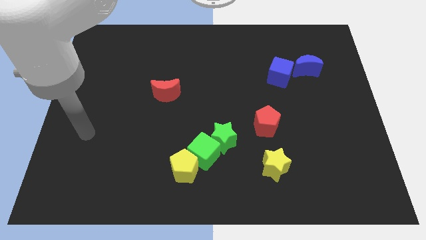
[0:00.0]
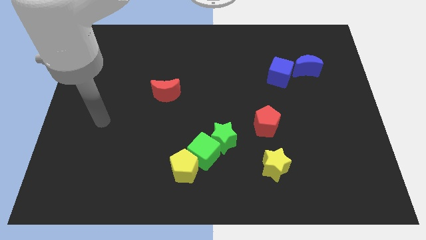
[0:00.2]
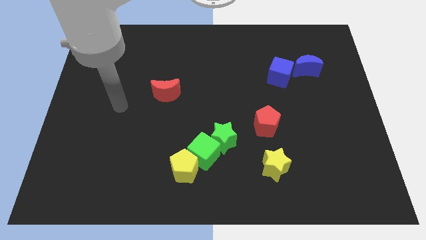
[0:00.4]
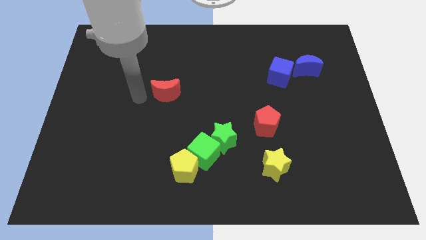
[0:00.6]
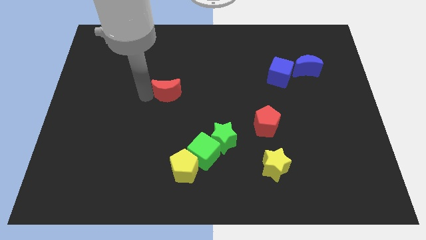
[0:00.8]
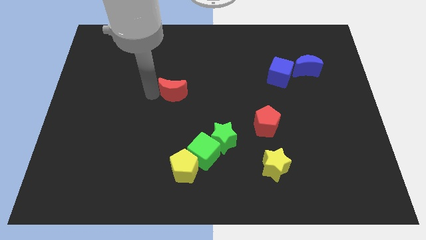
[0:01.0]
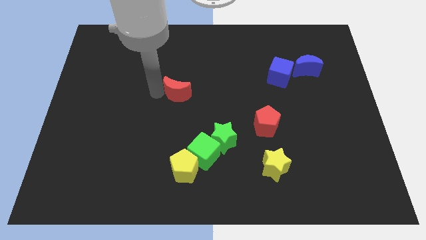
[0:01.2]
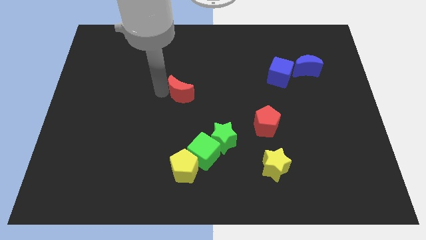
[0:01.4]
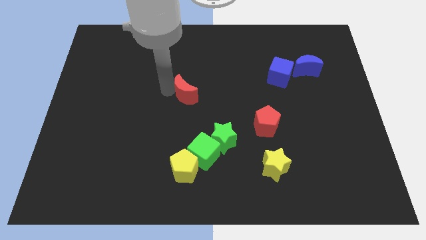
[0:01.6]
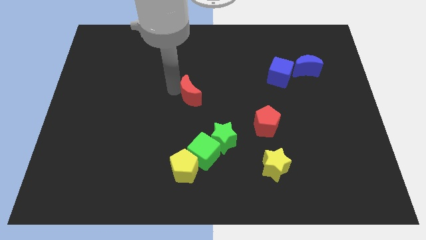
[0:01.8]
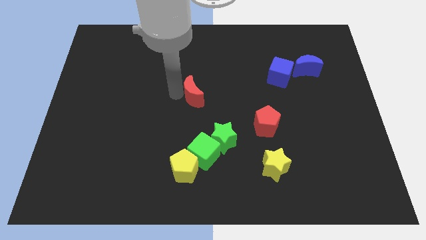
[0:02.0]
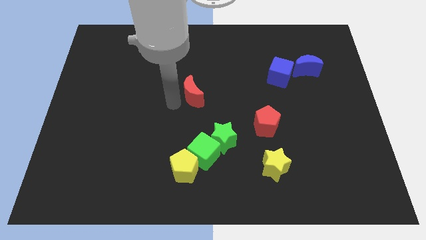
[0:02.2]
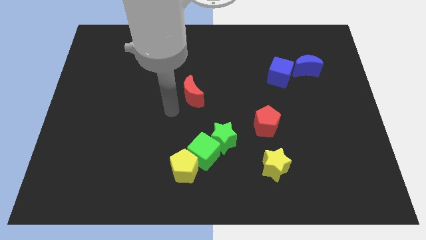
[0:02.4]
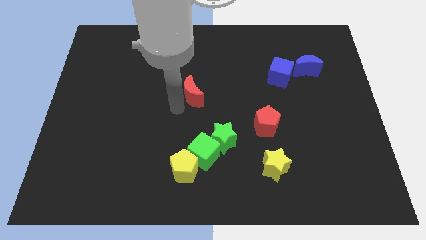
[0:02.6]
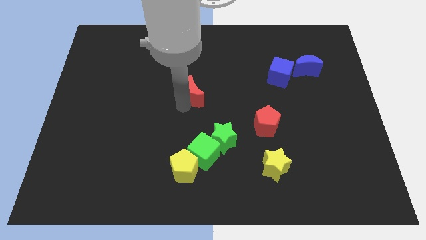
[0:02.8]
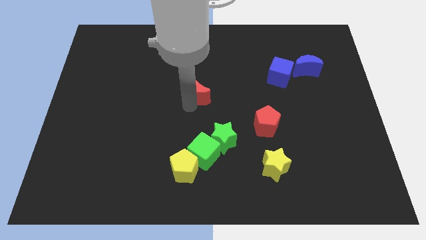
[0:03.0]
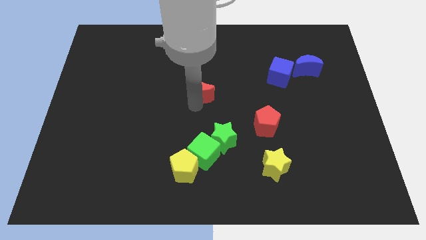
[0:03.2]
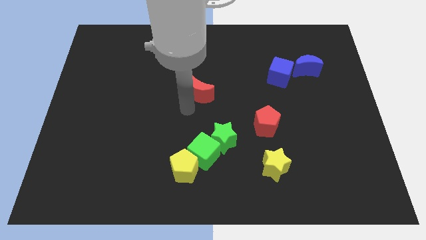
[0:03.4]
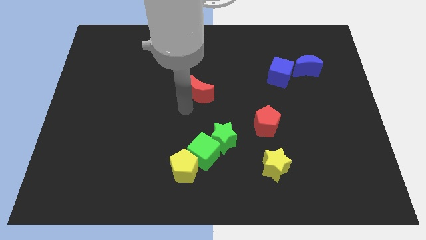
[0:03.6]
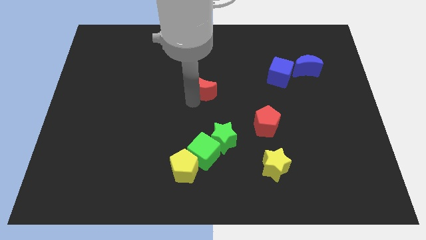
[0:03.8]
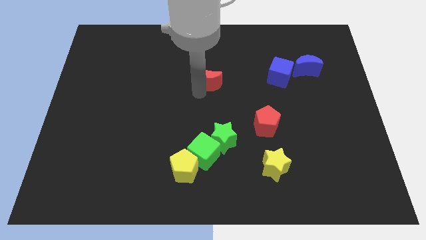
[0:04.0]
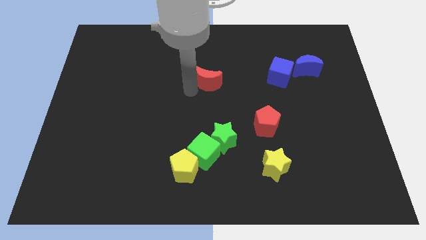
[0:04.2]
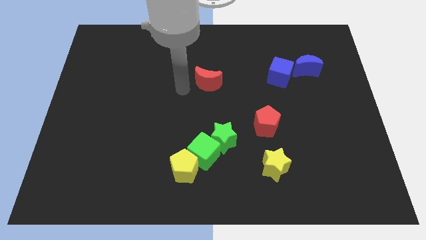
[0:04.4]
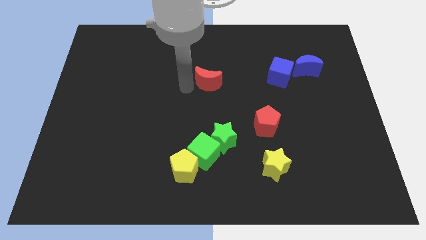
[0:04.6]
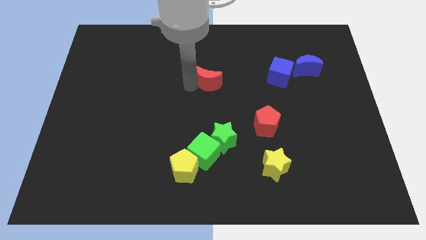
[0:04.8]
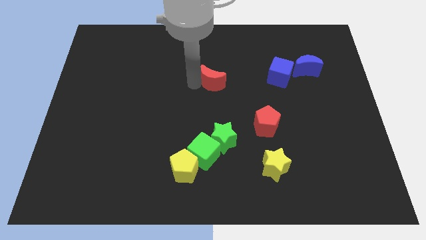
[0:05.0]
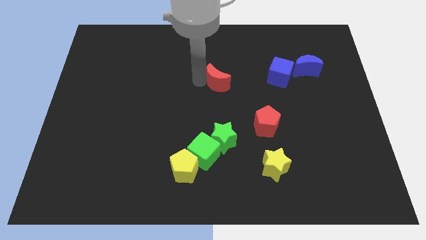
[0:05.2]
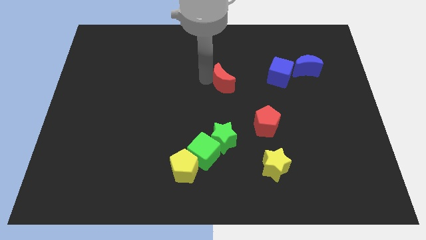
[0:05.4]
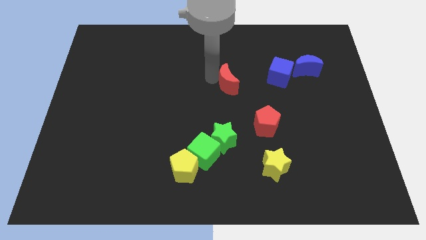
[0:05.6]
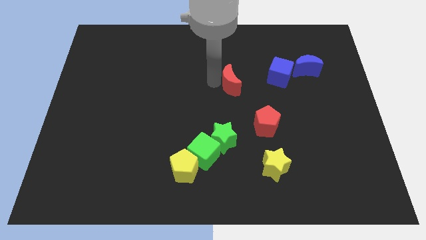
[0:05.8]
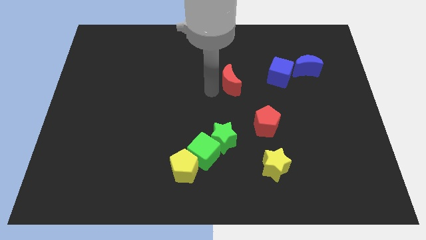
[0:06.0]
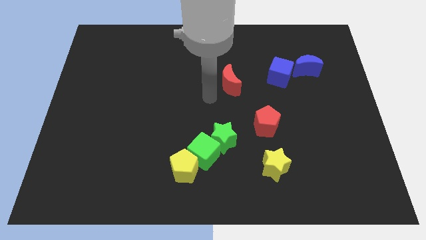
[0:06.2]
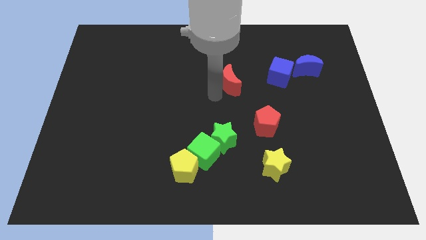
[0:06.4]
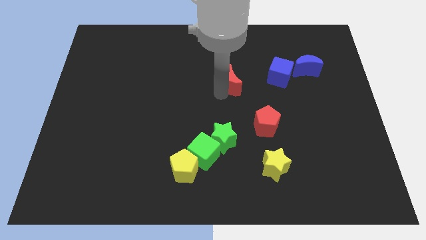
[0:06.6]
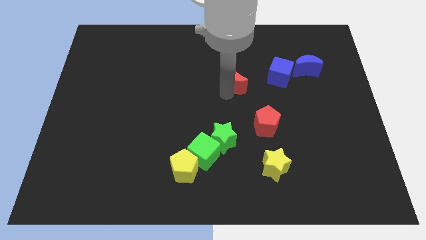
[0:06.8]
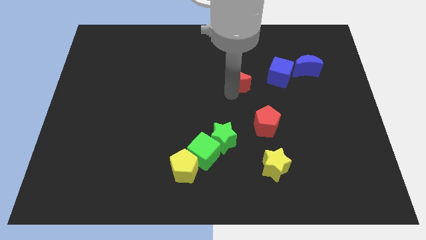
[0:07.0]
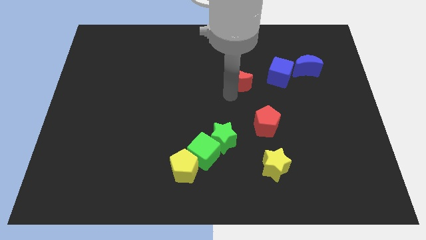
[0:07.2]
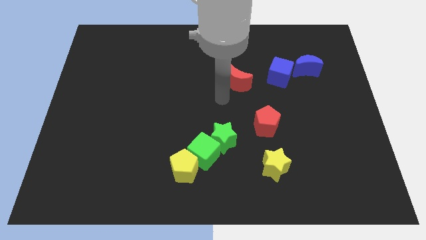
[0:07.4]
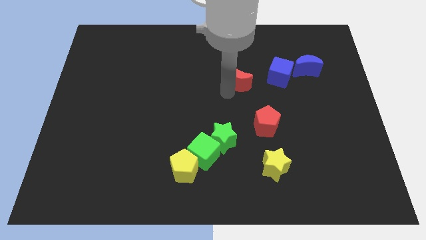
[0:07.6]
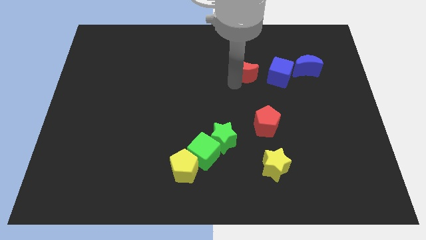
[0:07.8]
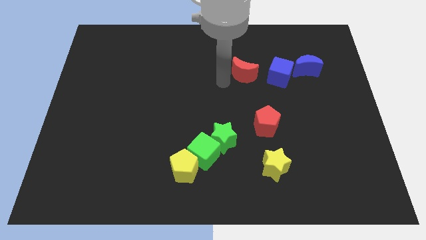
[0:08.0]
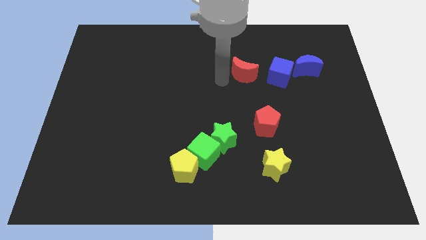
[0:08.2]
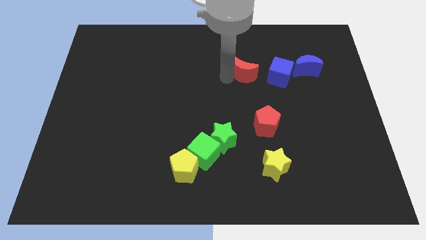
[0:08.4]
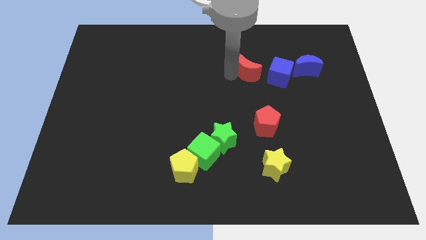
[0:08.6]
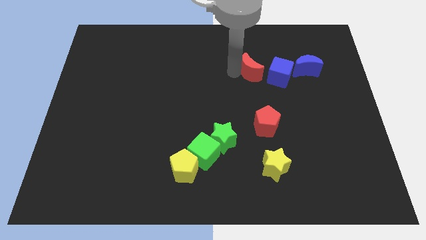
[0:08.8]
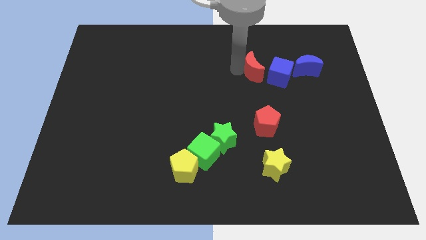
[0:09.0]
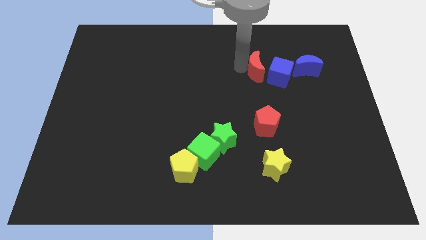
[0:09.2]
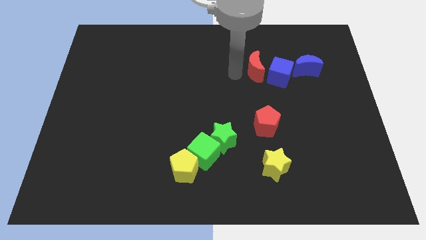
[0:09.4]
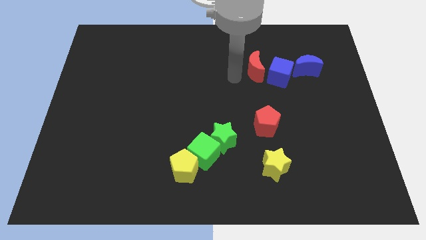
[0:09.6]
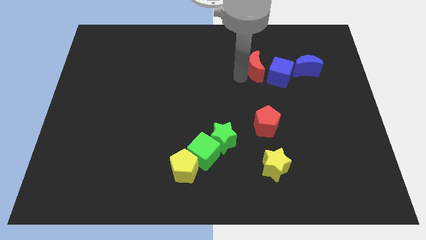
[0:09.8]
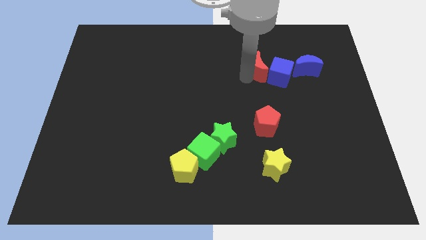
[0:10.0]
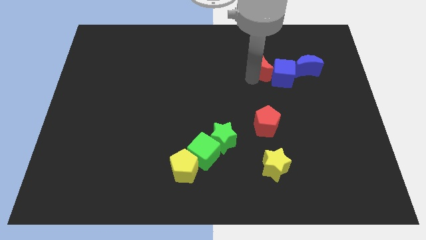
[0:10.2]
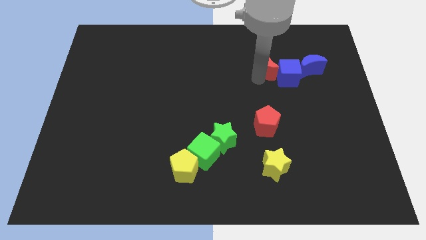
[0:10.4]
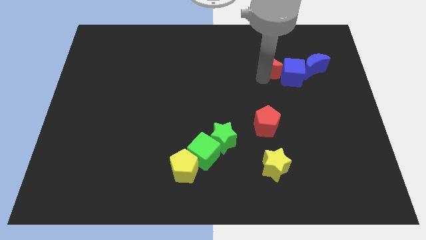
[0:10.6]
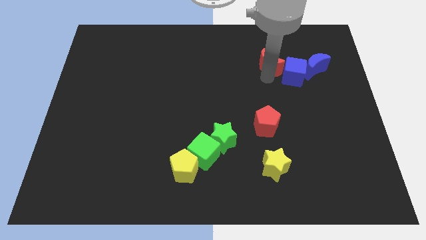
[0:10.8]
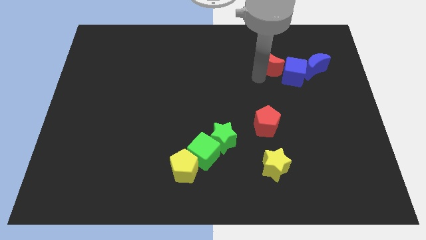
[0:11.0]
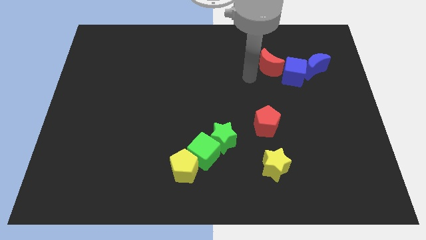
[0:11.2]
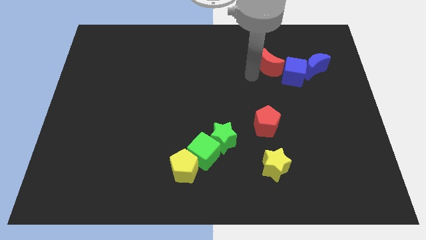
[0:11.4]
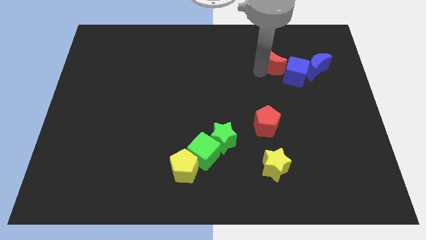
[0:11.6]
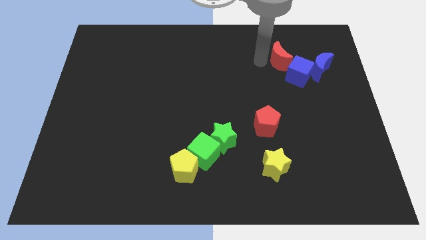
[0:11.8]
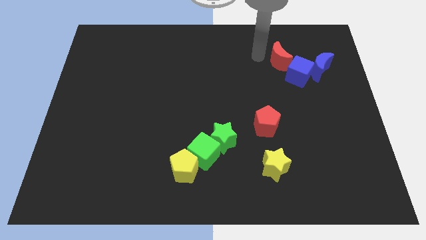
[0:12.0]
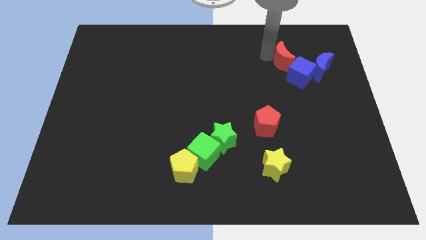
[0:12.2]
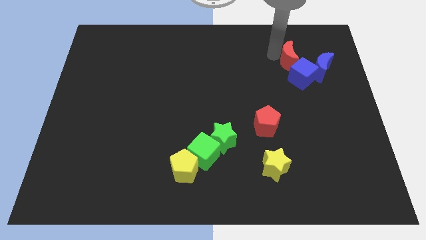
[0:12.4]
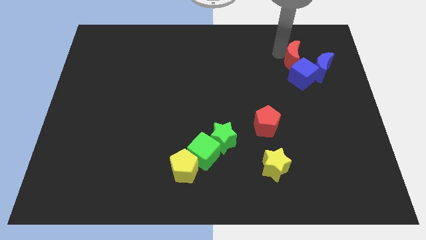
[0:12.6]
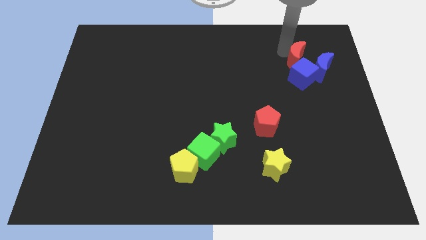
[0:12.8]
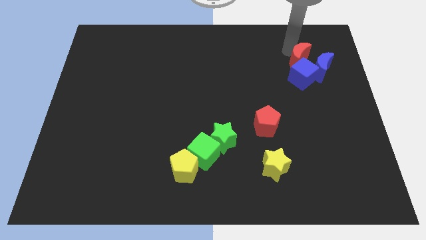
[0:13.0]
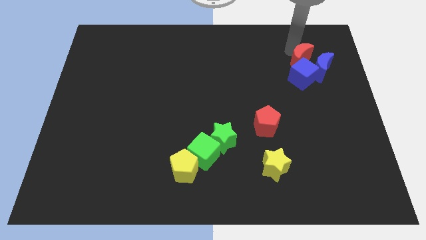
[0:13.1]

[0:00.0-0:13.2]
move the red moon close to the blue moon
